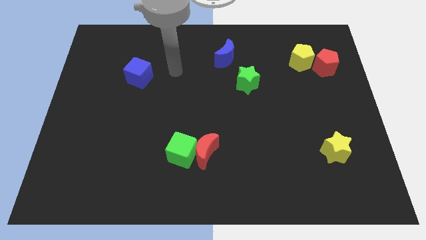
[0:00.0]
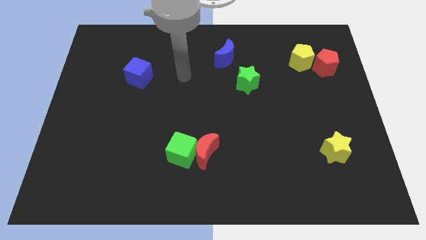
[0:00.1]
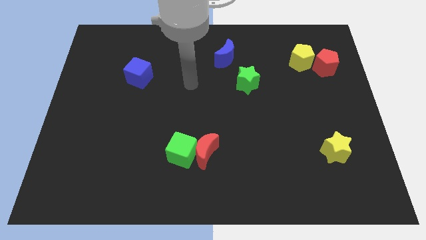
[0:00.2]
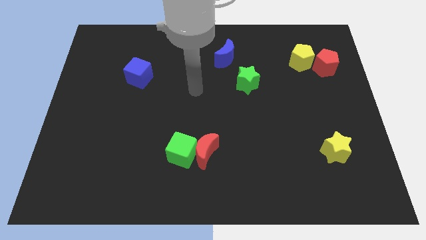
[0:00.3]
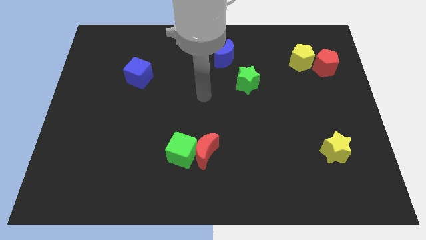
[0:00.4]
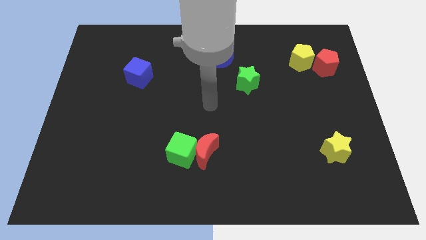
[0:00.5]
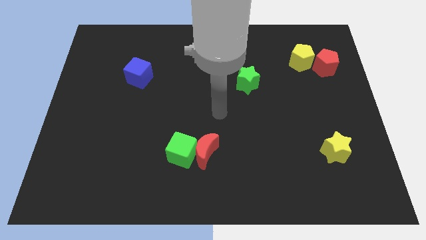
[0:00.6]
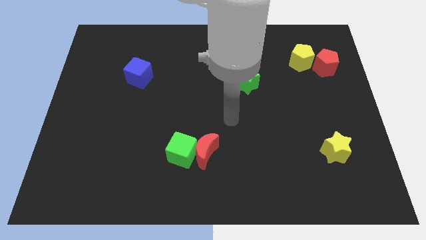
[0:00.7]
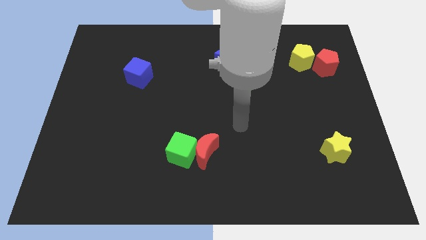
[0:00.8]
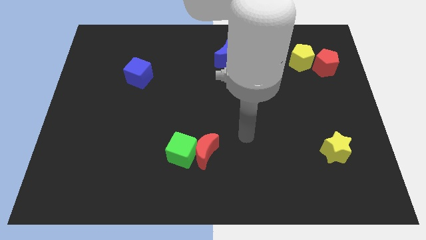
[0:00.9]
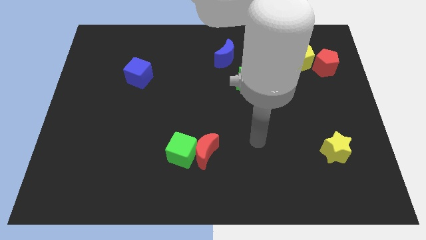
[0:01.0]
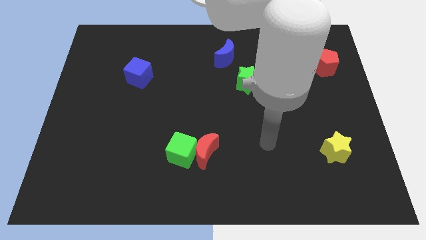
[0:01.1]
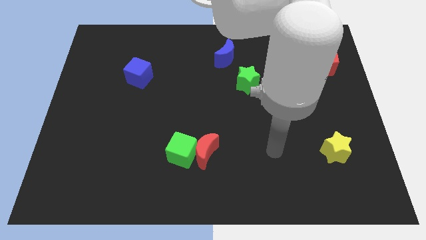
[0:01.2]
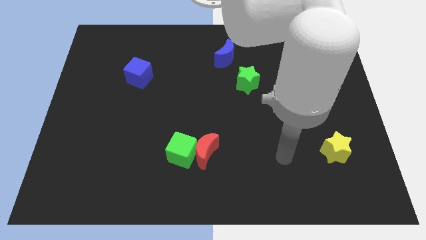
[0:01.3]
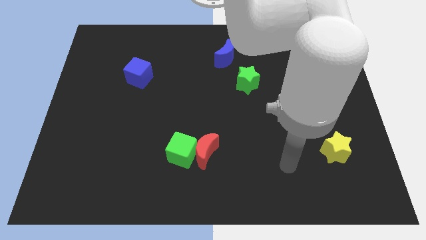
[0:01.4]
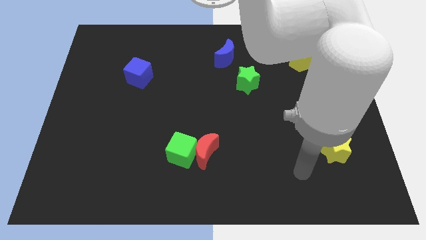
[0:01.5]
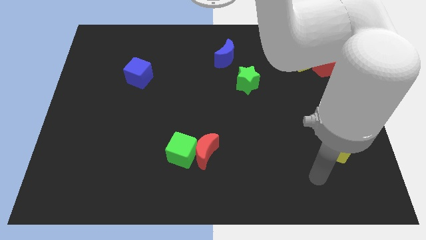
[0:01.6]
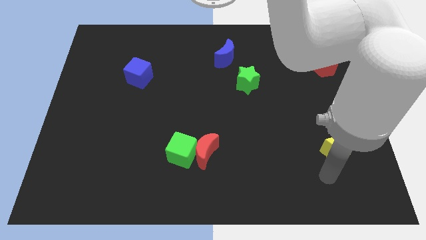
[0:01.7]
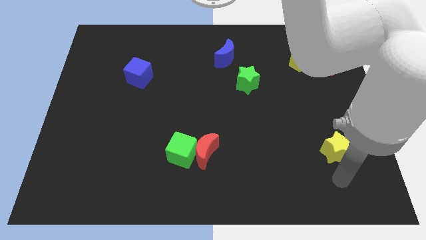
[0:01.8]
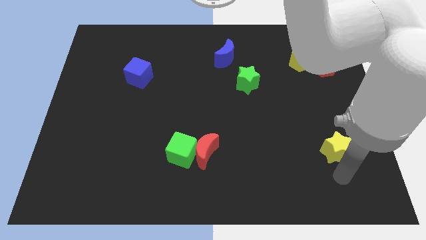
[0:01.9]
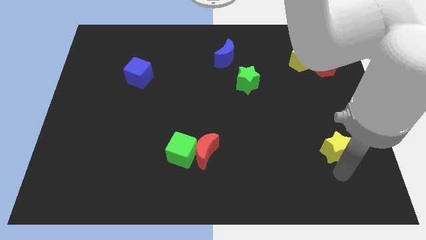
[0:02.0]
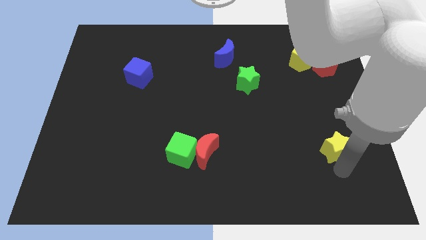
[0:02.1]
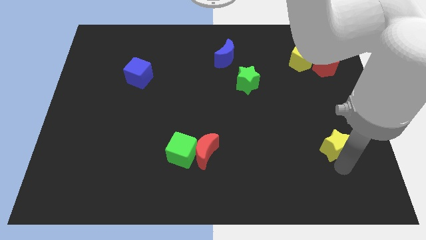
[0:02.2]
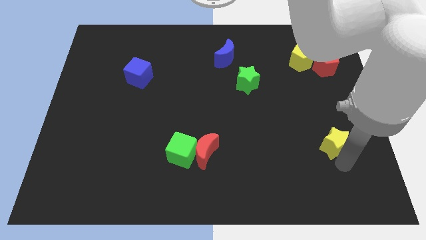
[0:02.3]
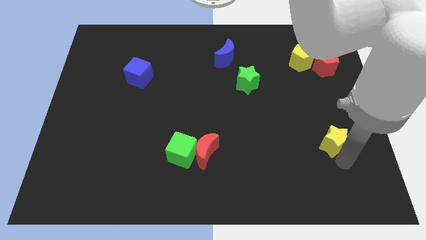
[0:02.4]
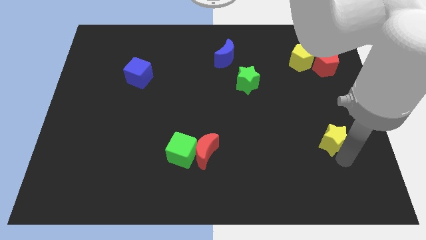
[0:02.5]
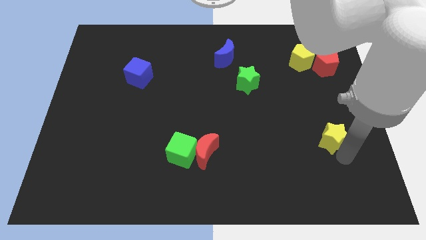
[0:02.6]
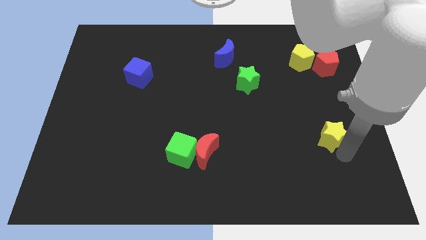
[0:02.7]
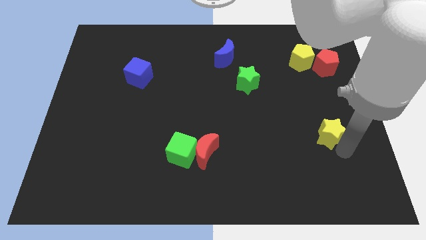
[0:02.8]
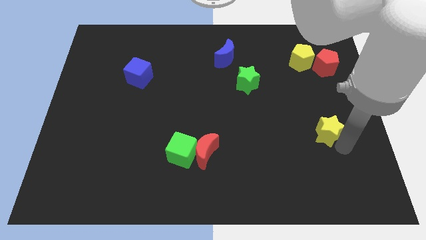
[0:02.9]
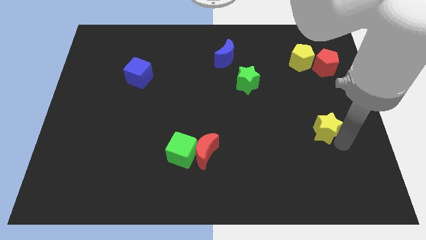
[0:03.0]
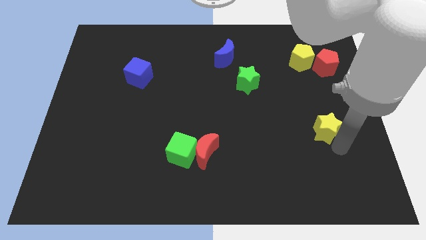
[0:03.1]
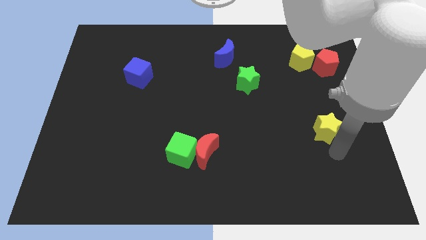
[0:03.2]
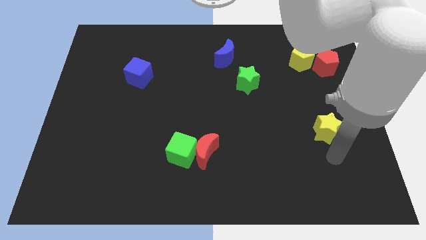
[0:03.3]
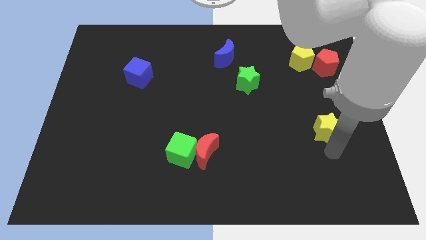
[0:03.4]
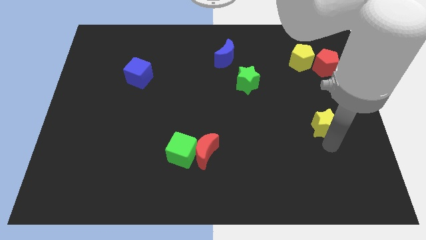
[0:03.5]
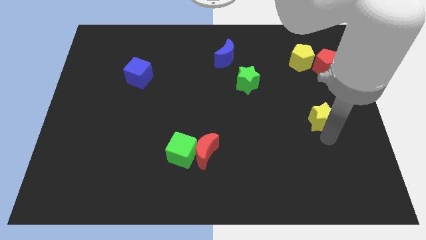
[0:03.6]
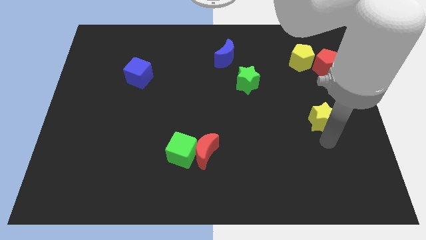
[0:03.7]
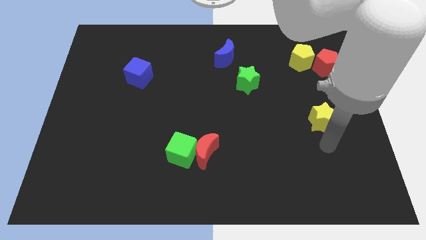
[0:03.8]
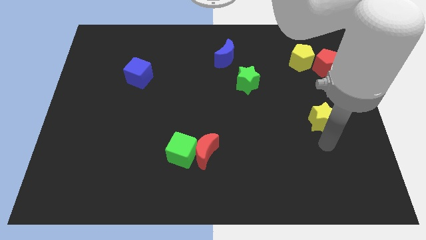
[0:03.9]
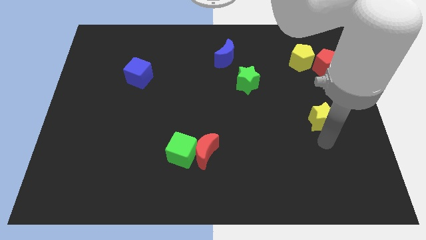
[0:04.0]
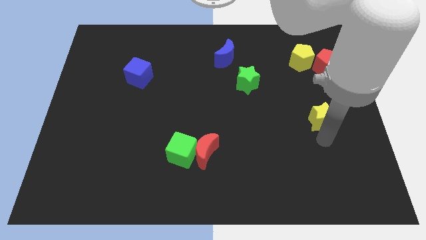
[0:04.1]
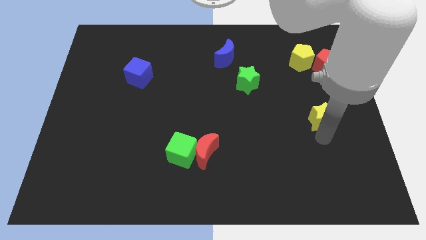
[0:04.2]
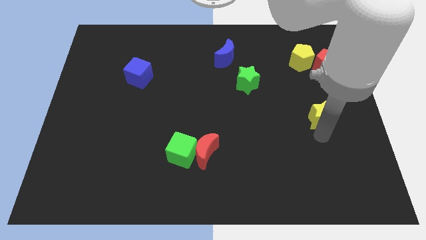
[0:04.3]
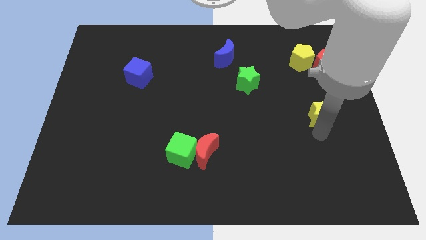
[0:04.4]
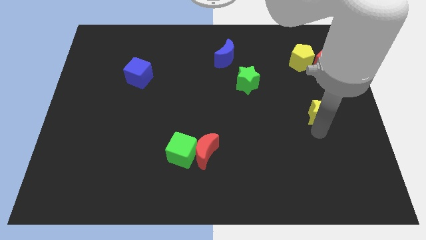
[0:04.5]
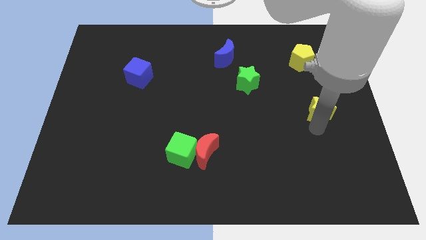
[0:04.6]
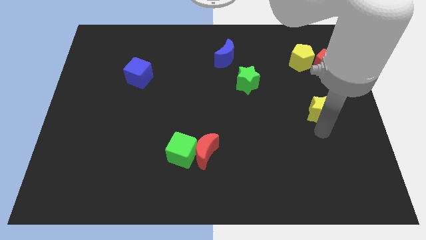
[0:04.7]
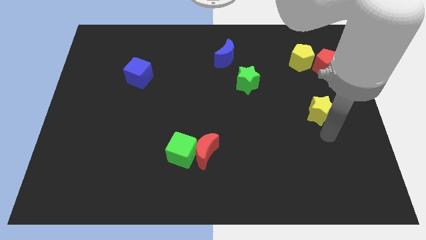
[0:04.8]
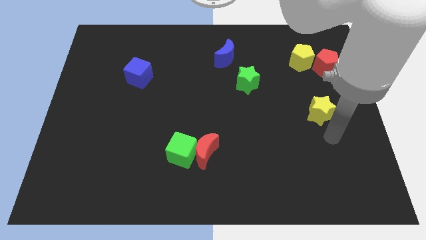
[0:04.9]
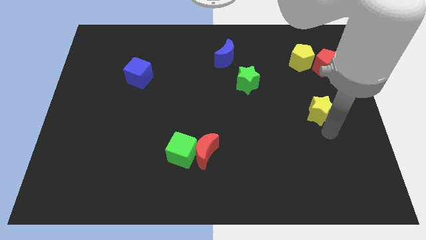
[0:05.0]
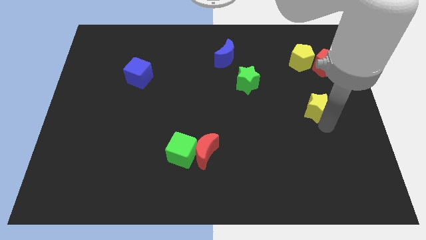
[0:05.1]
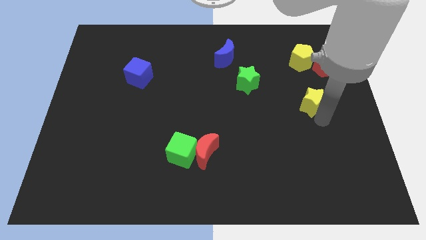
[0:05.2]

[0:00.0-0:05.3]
push the yellow star to the bottom of the yellow pentagon

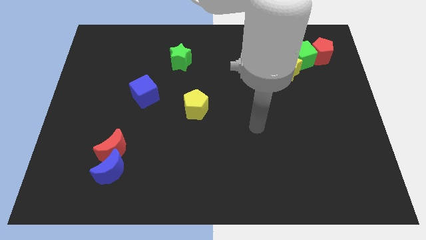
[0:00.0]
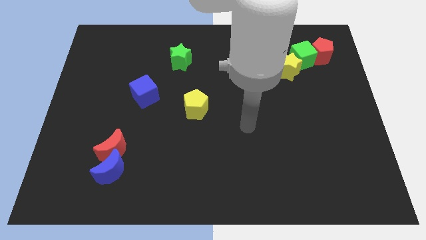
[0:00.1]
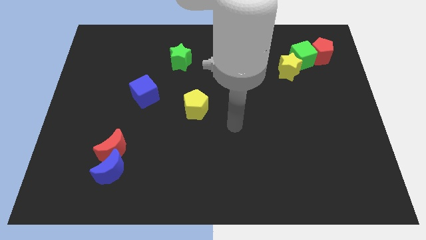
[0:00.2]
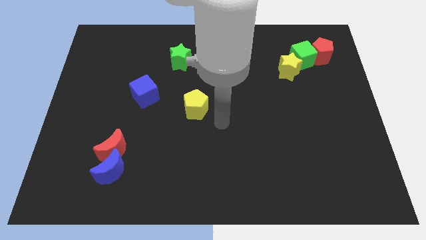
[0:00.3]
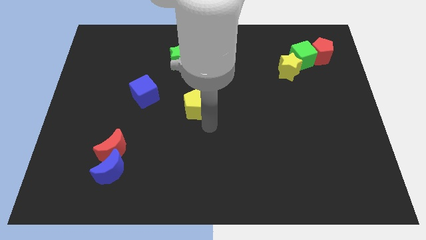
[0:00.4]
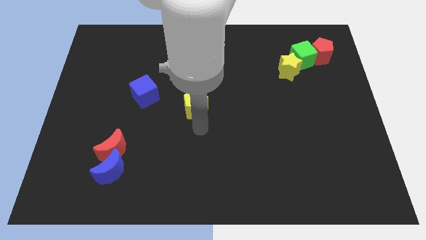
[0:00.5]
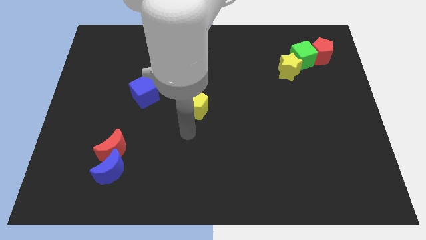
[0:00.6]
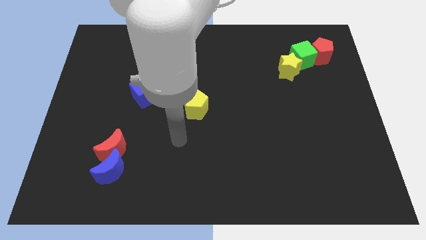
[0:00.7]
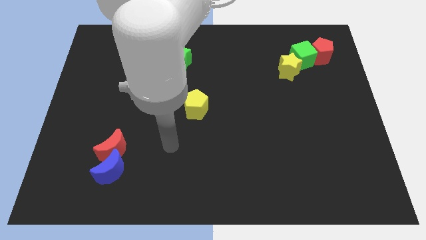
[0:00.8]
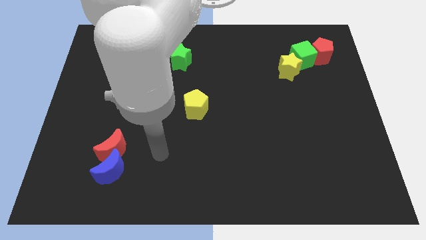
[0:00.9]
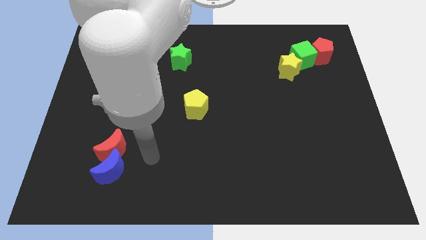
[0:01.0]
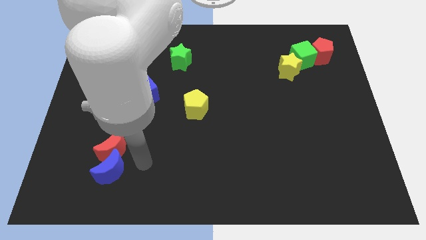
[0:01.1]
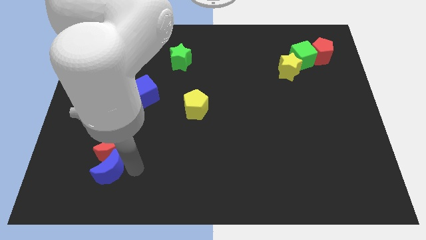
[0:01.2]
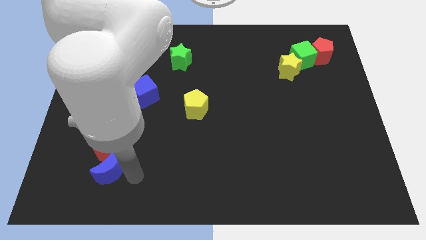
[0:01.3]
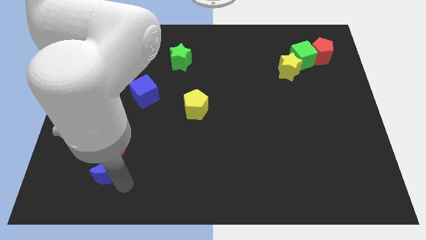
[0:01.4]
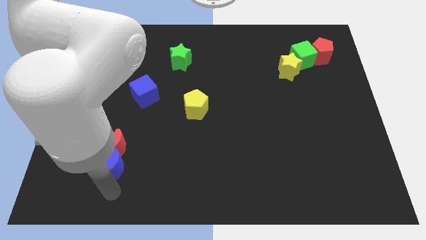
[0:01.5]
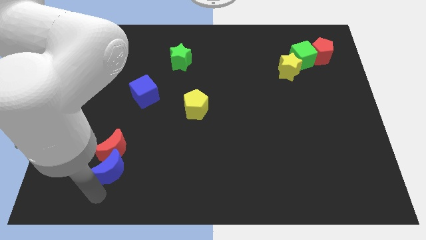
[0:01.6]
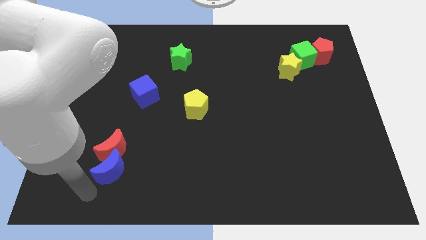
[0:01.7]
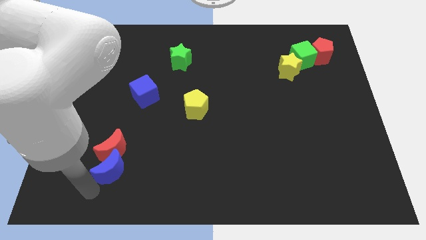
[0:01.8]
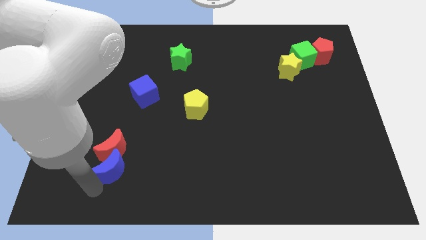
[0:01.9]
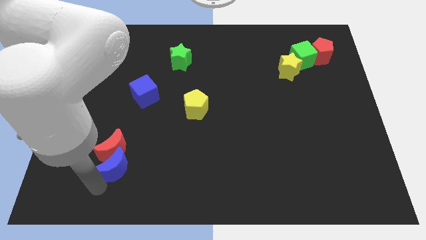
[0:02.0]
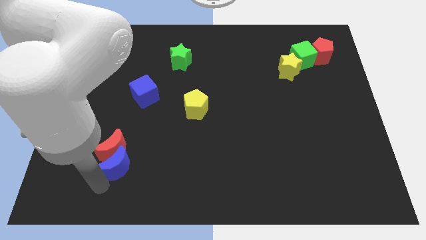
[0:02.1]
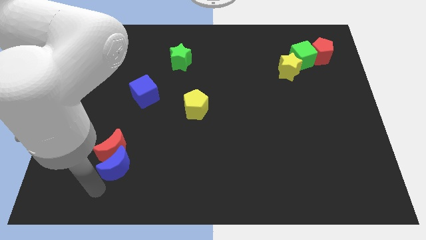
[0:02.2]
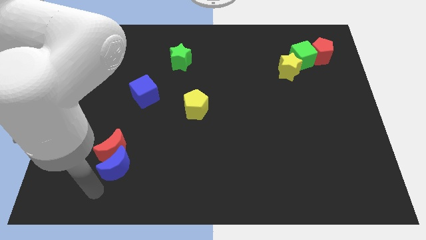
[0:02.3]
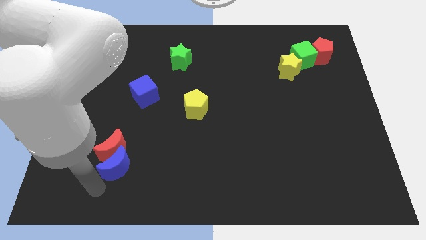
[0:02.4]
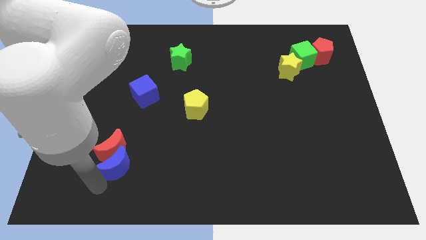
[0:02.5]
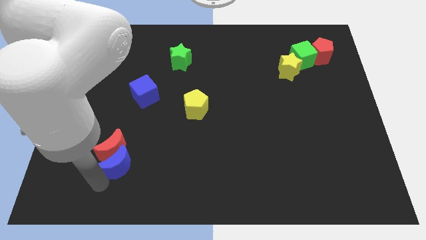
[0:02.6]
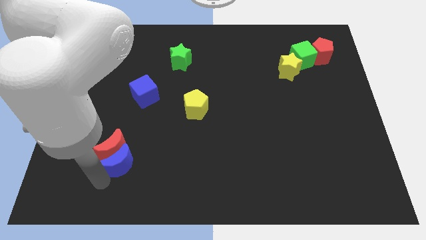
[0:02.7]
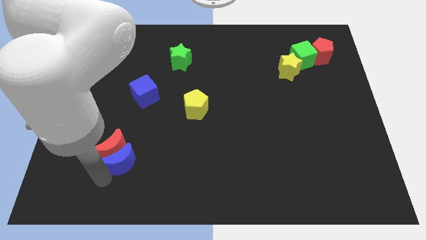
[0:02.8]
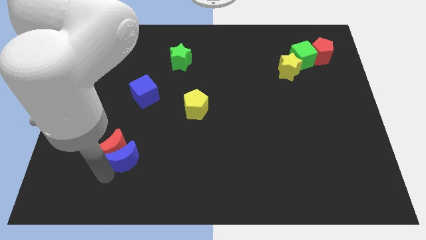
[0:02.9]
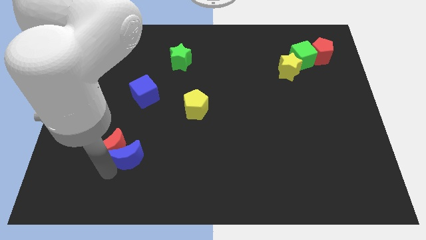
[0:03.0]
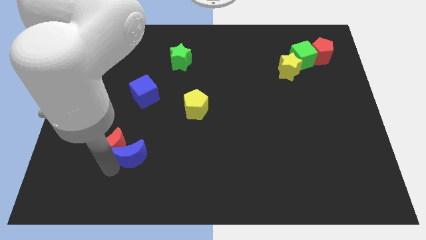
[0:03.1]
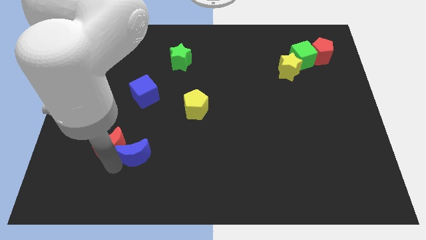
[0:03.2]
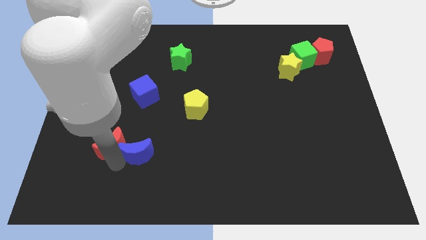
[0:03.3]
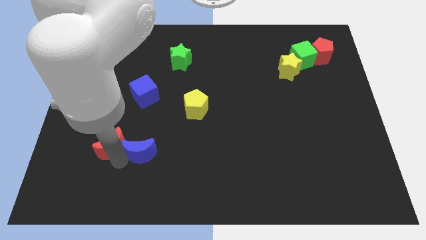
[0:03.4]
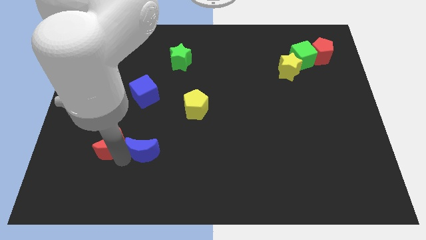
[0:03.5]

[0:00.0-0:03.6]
slide the blue moon below the blue cube
